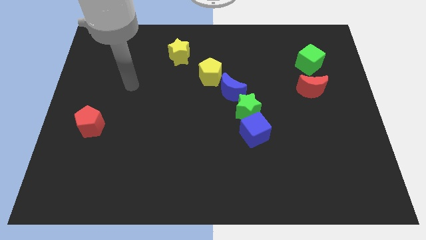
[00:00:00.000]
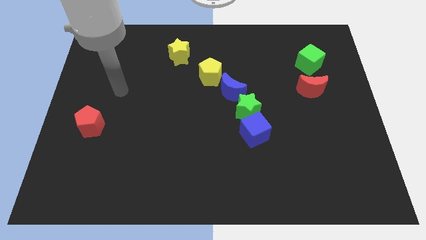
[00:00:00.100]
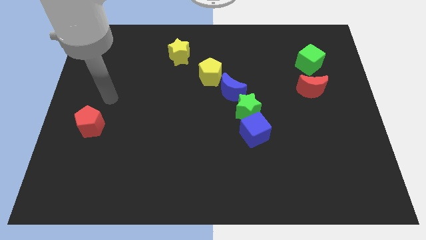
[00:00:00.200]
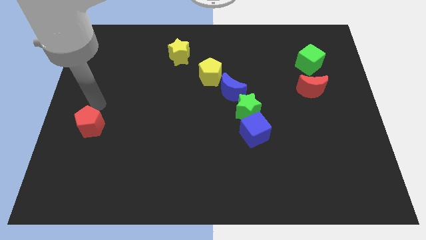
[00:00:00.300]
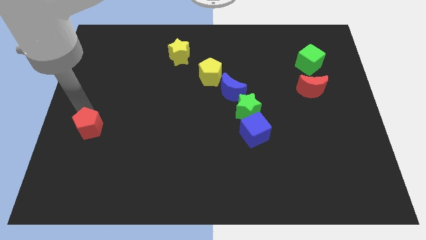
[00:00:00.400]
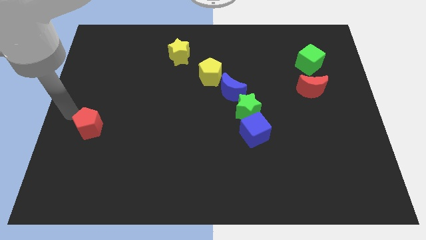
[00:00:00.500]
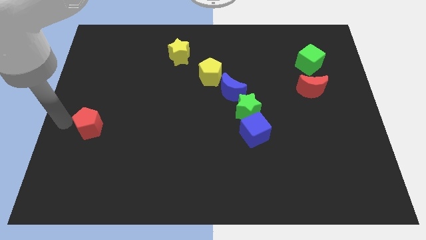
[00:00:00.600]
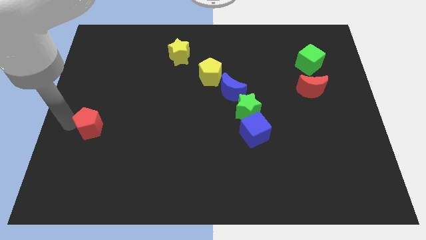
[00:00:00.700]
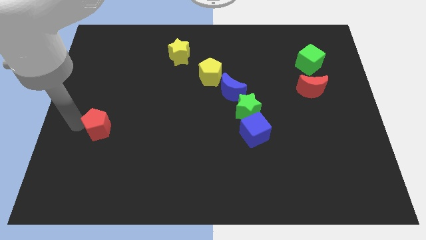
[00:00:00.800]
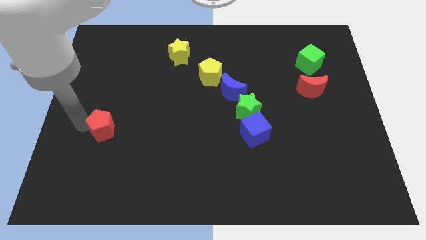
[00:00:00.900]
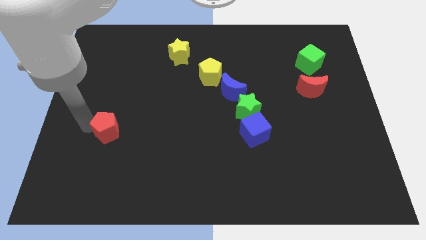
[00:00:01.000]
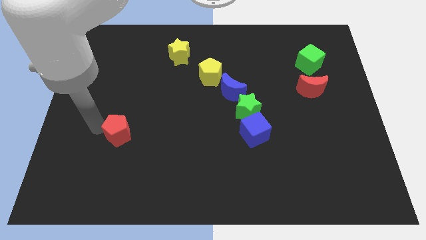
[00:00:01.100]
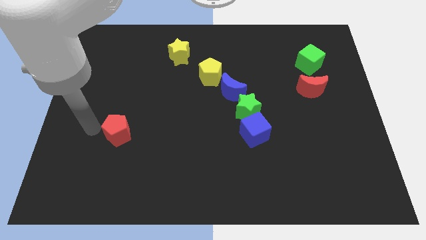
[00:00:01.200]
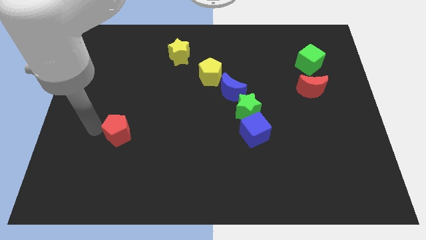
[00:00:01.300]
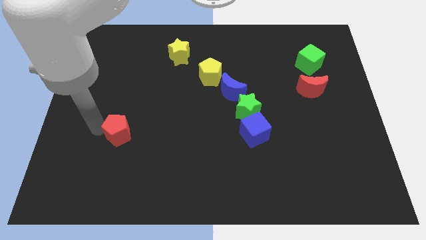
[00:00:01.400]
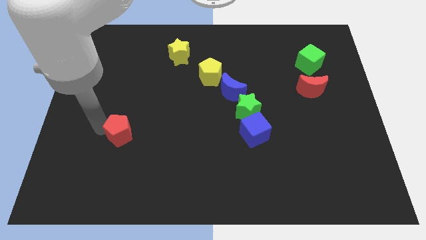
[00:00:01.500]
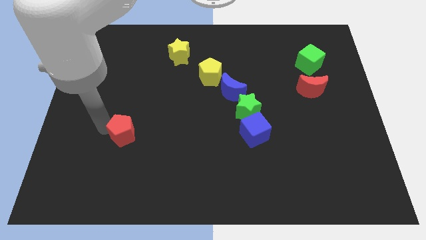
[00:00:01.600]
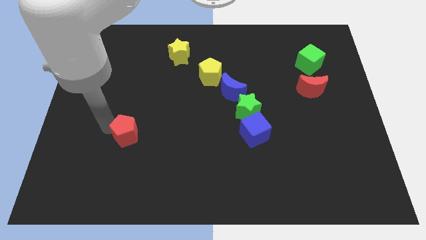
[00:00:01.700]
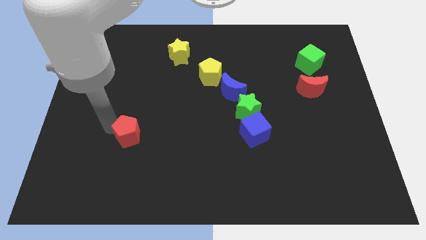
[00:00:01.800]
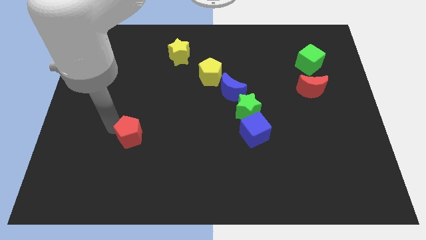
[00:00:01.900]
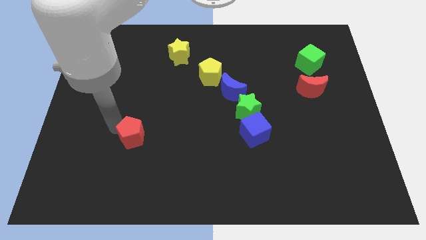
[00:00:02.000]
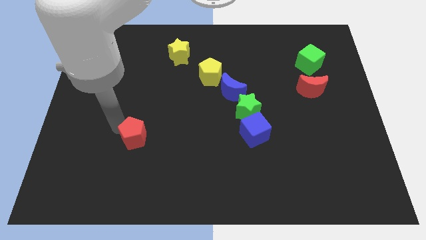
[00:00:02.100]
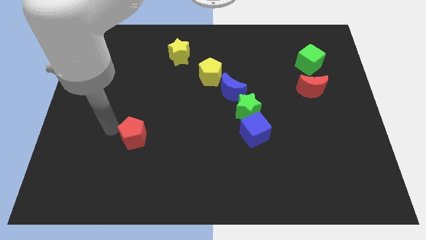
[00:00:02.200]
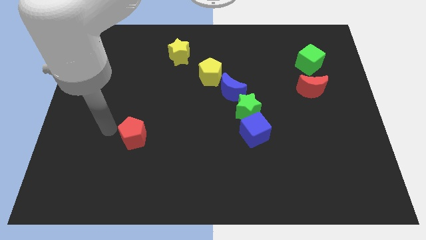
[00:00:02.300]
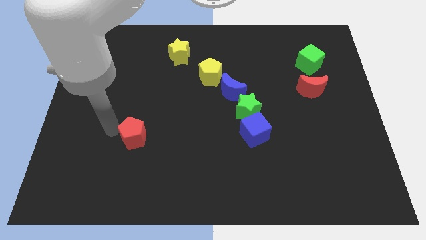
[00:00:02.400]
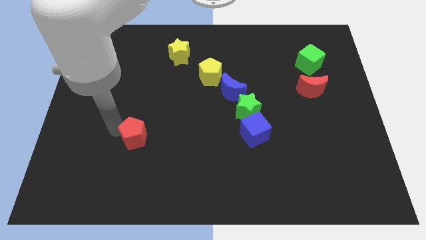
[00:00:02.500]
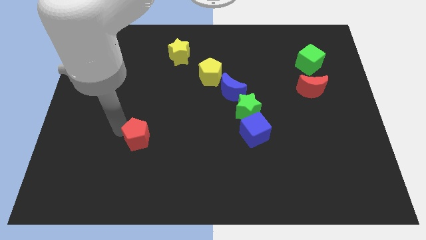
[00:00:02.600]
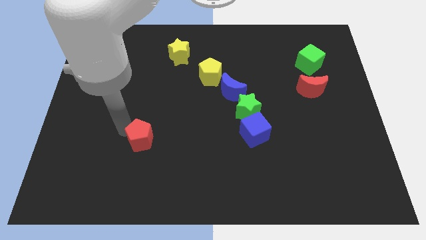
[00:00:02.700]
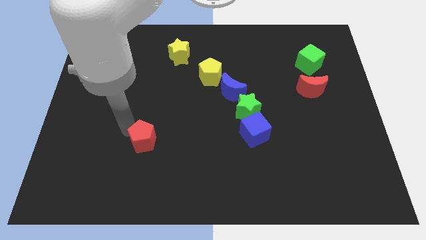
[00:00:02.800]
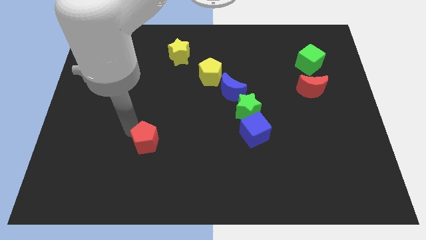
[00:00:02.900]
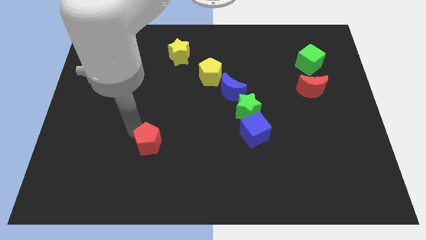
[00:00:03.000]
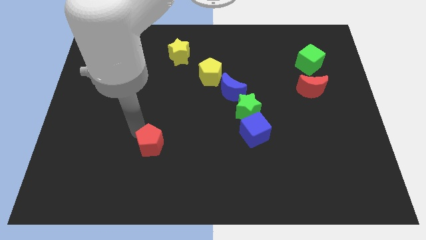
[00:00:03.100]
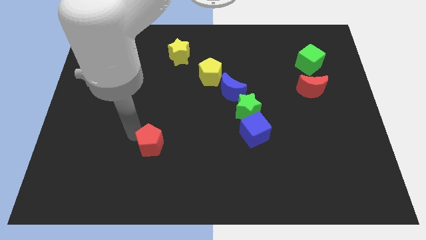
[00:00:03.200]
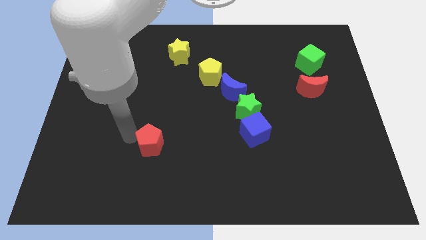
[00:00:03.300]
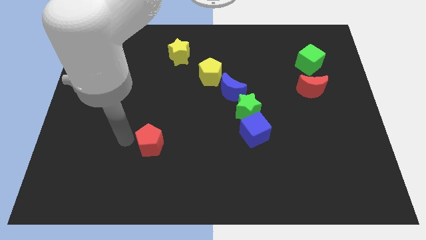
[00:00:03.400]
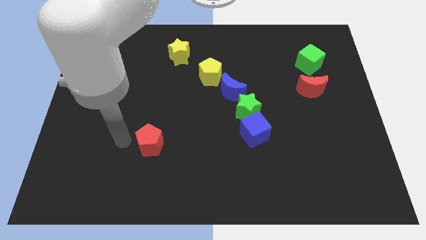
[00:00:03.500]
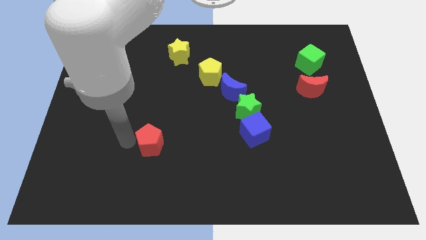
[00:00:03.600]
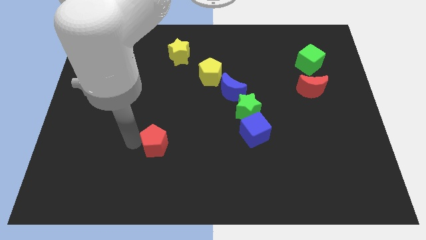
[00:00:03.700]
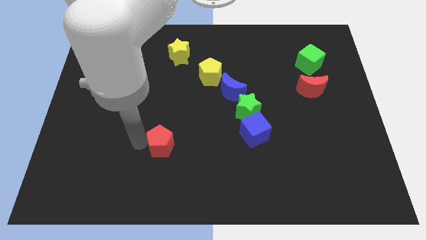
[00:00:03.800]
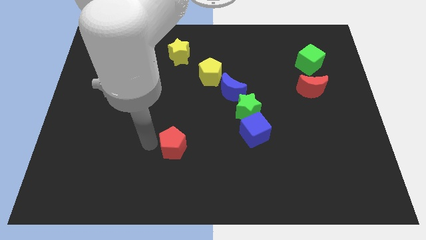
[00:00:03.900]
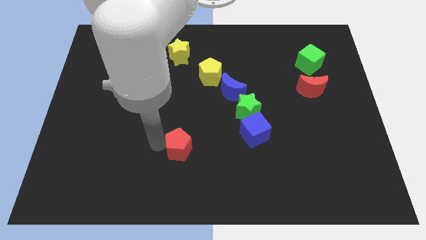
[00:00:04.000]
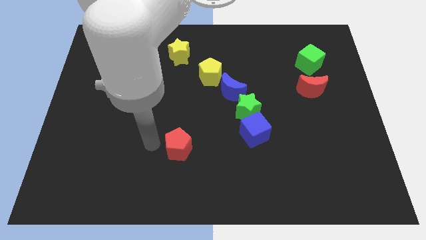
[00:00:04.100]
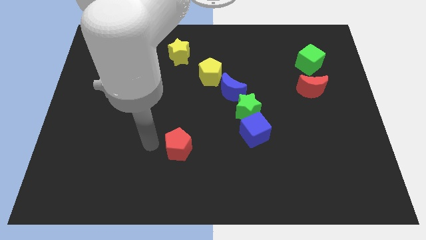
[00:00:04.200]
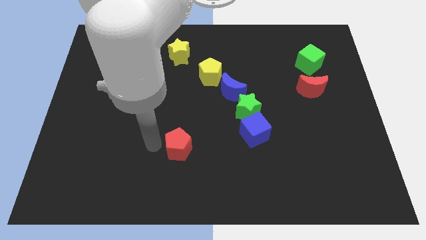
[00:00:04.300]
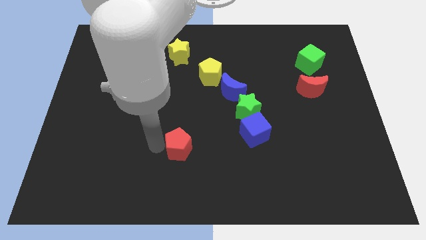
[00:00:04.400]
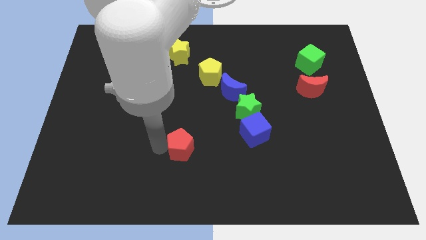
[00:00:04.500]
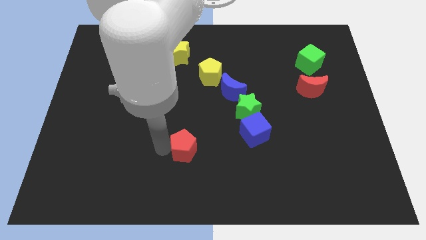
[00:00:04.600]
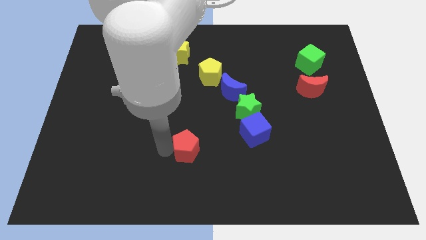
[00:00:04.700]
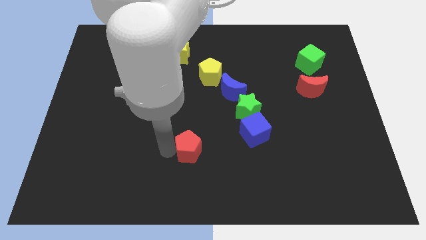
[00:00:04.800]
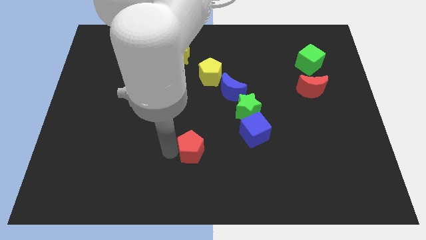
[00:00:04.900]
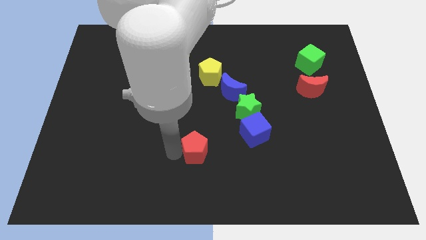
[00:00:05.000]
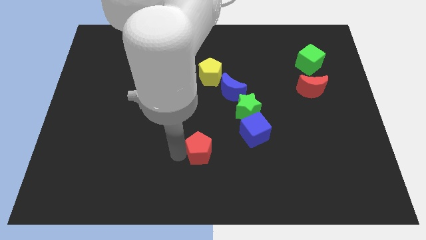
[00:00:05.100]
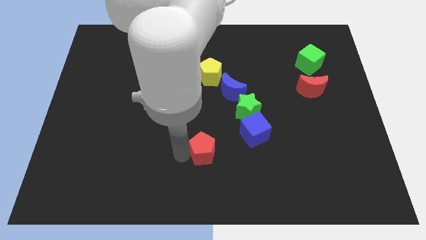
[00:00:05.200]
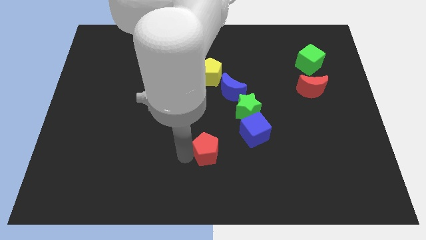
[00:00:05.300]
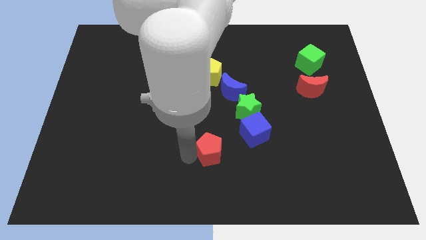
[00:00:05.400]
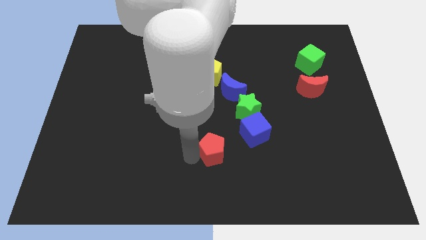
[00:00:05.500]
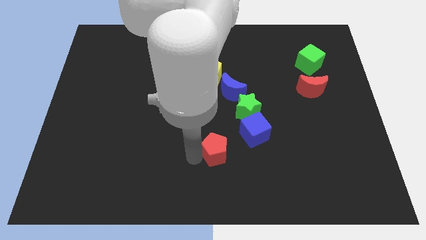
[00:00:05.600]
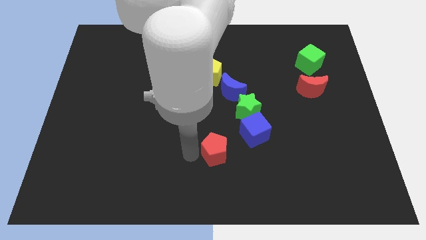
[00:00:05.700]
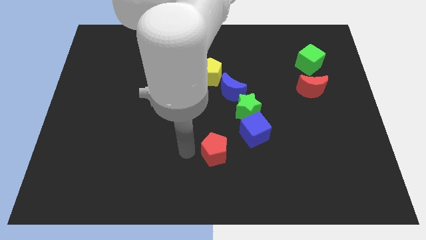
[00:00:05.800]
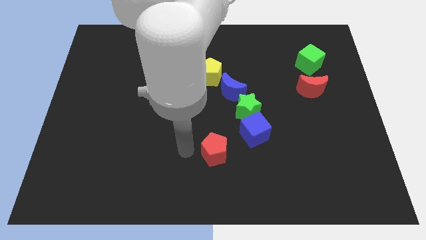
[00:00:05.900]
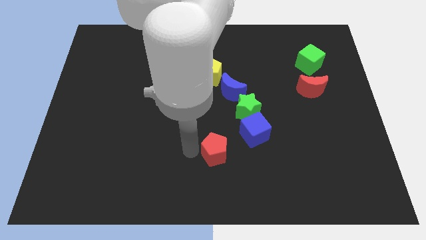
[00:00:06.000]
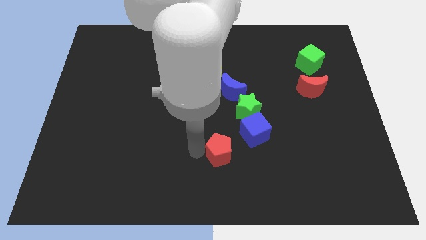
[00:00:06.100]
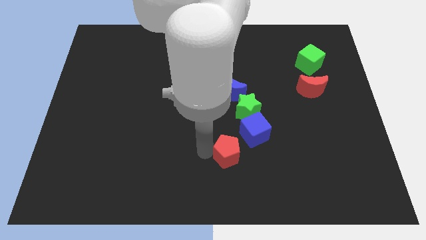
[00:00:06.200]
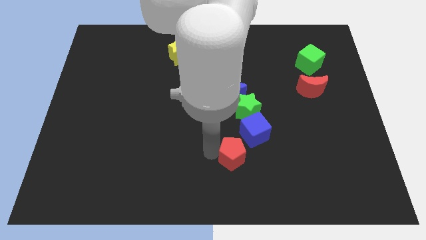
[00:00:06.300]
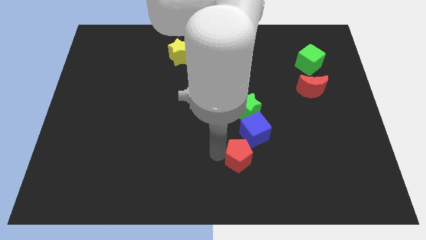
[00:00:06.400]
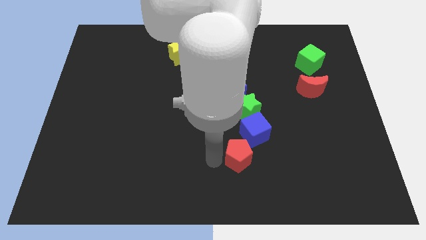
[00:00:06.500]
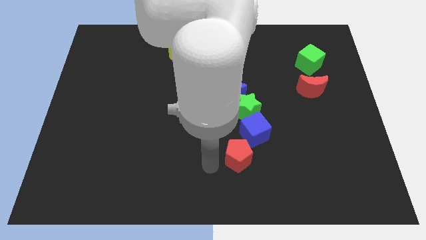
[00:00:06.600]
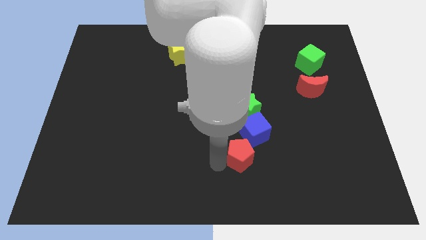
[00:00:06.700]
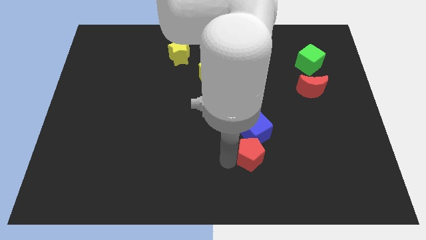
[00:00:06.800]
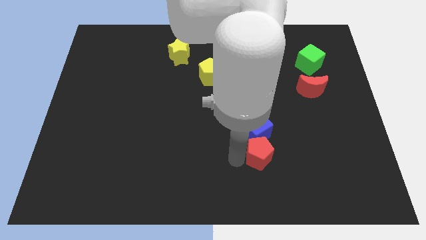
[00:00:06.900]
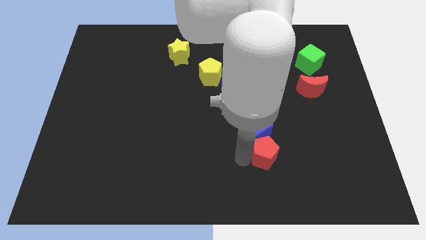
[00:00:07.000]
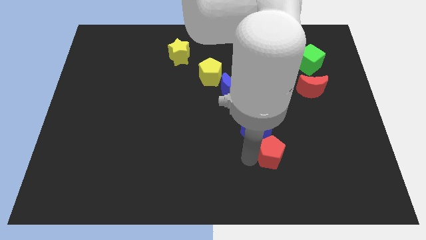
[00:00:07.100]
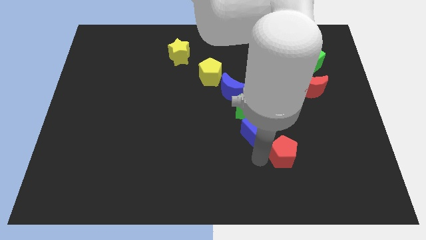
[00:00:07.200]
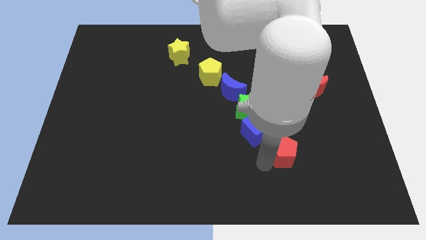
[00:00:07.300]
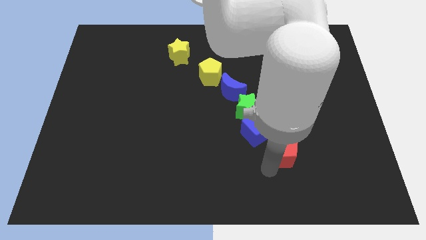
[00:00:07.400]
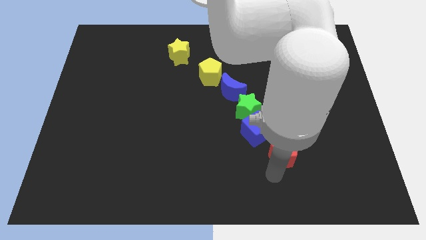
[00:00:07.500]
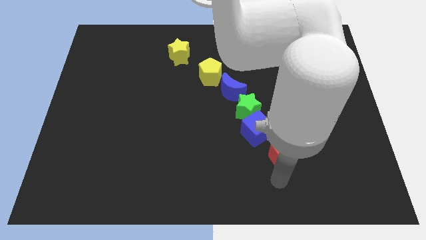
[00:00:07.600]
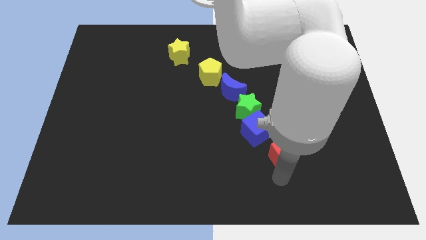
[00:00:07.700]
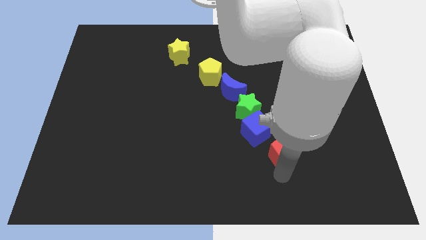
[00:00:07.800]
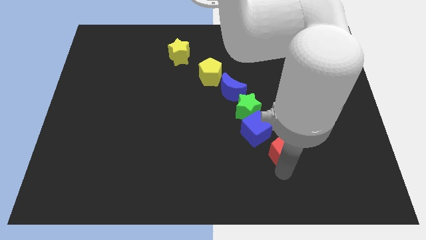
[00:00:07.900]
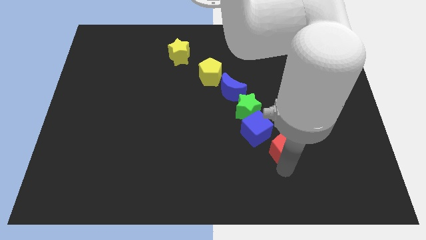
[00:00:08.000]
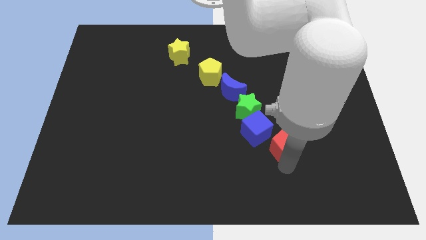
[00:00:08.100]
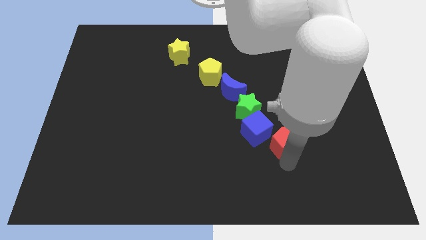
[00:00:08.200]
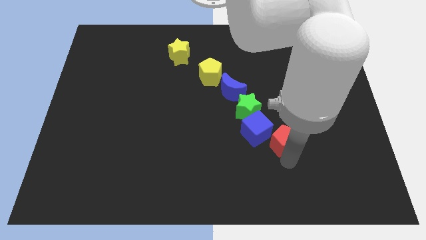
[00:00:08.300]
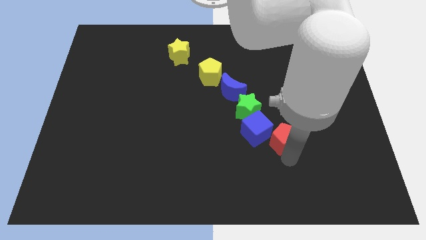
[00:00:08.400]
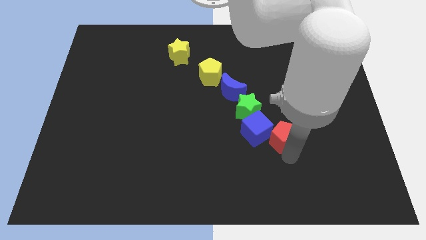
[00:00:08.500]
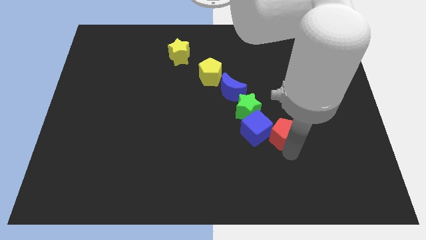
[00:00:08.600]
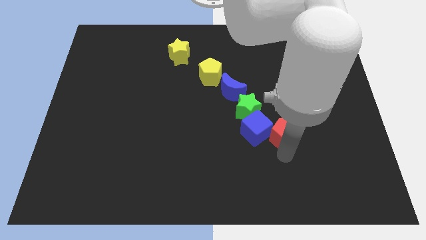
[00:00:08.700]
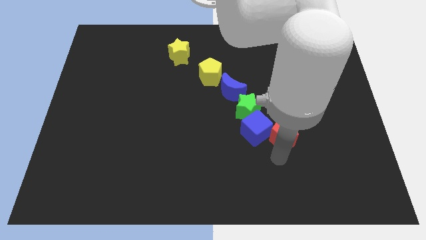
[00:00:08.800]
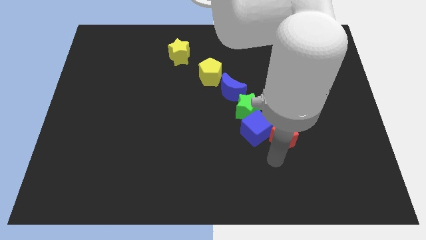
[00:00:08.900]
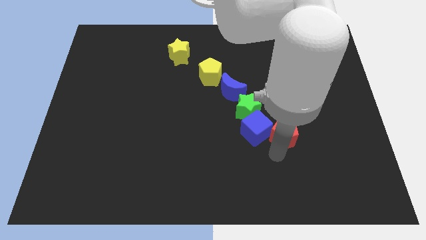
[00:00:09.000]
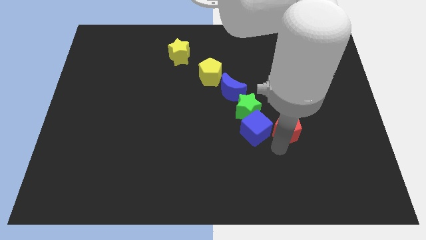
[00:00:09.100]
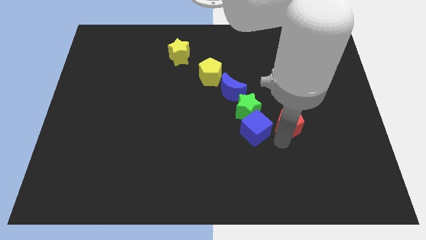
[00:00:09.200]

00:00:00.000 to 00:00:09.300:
push the red pentagon right of the green star
